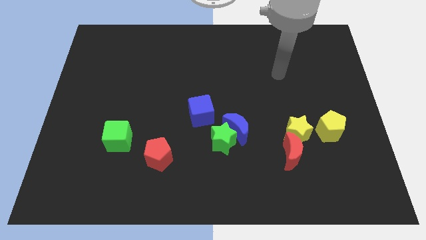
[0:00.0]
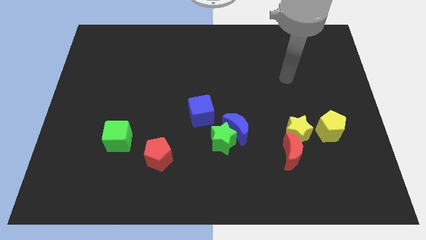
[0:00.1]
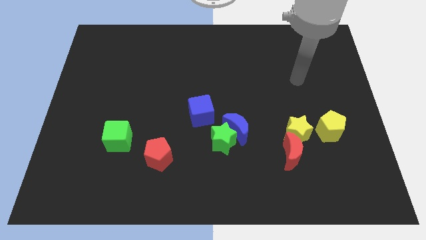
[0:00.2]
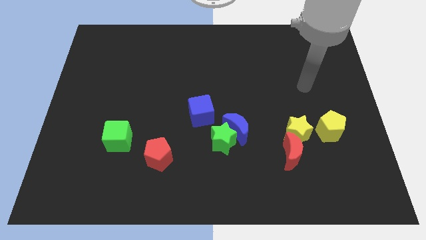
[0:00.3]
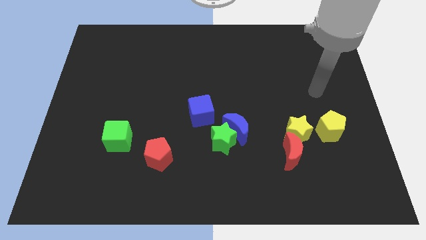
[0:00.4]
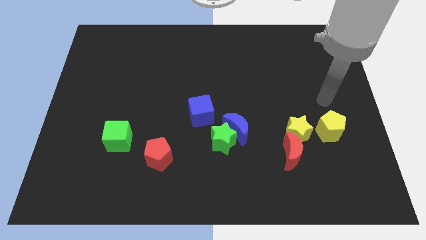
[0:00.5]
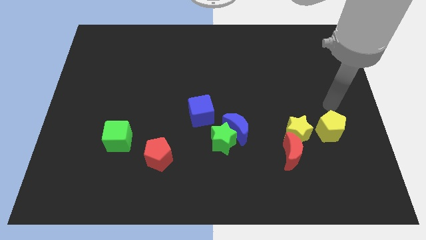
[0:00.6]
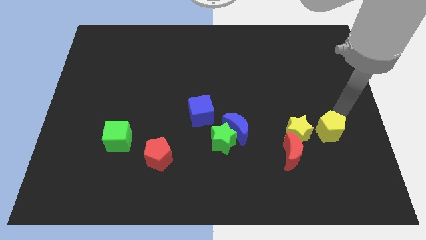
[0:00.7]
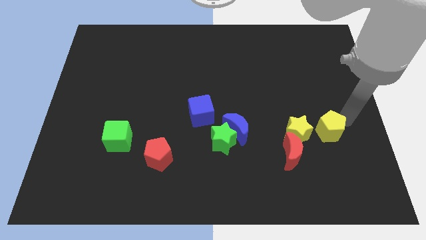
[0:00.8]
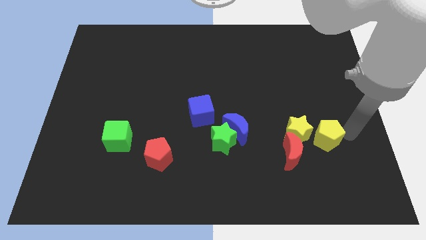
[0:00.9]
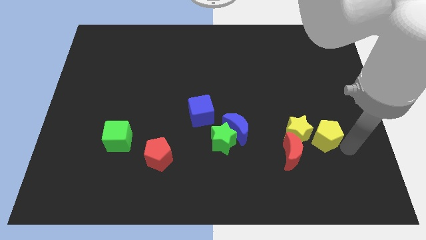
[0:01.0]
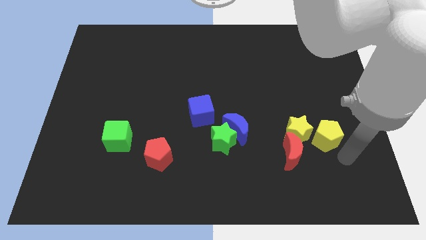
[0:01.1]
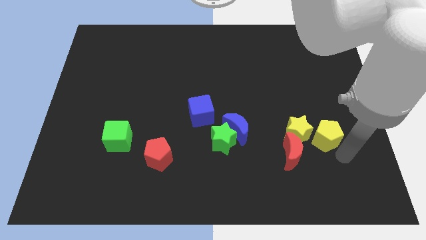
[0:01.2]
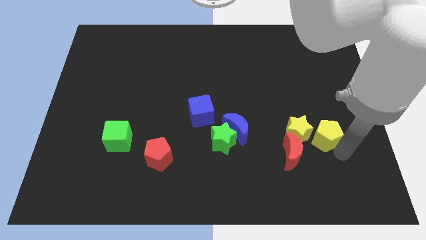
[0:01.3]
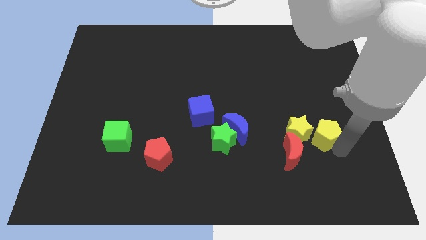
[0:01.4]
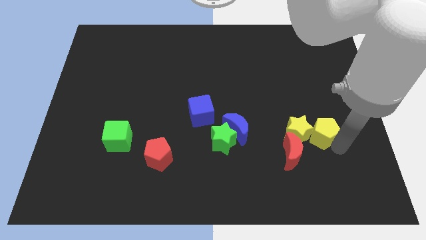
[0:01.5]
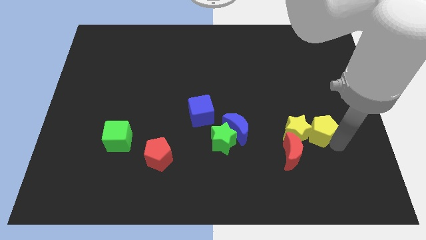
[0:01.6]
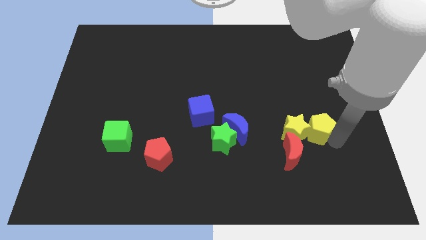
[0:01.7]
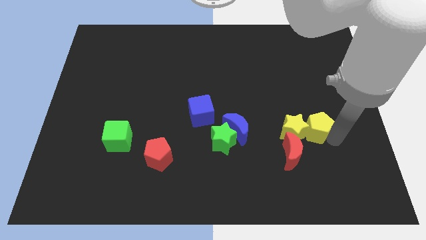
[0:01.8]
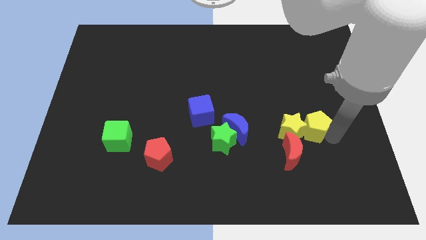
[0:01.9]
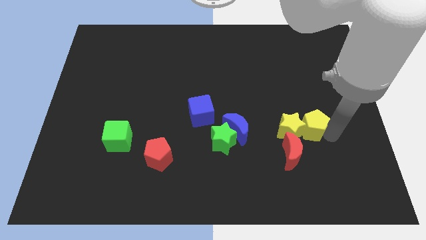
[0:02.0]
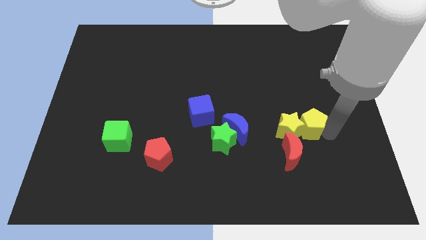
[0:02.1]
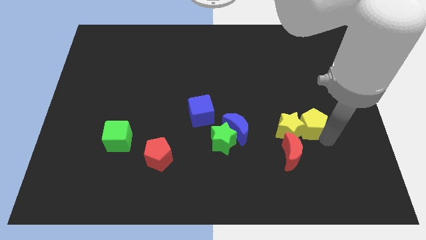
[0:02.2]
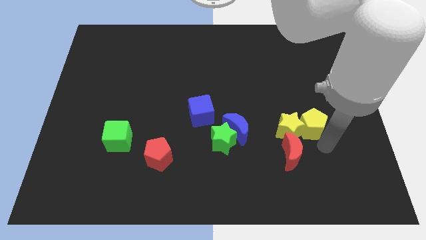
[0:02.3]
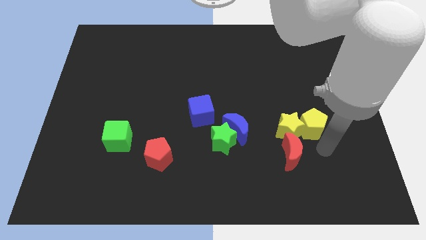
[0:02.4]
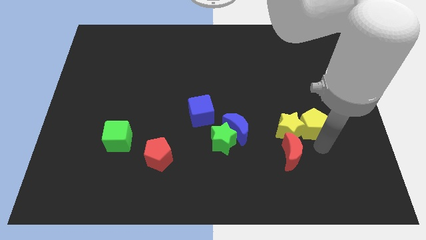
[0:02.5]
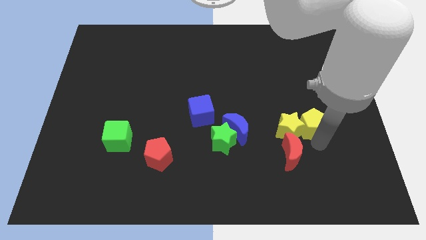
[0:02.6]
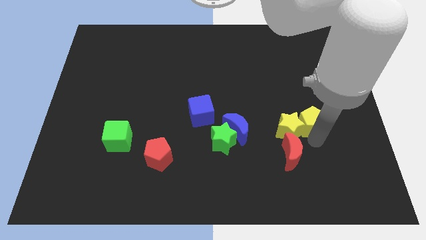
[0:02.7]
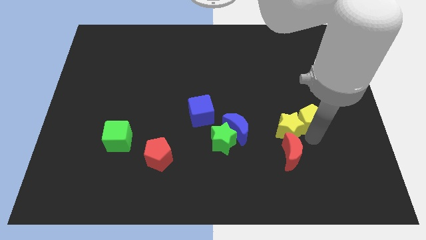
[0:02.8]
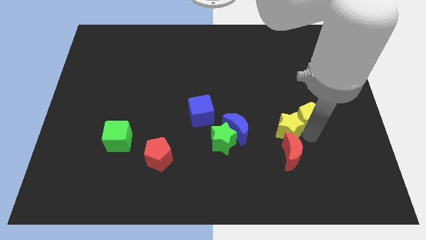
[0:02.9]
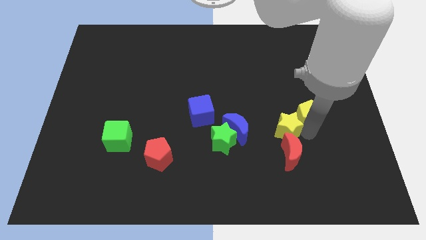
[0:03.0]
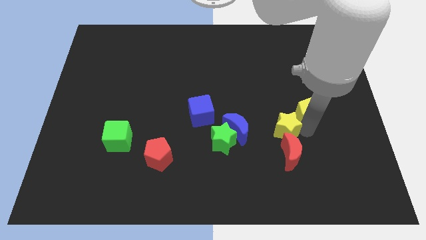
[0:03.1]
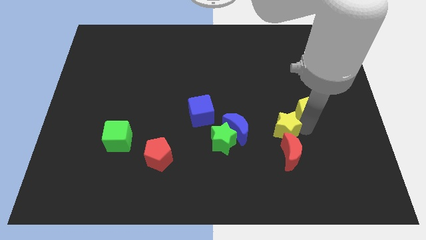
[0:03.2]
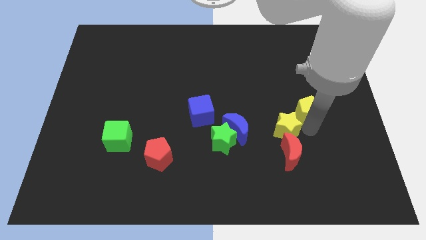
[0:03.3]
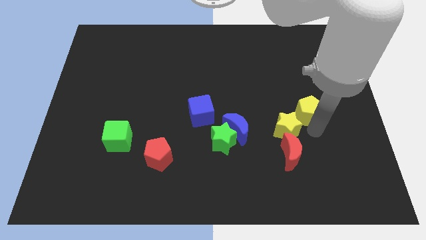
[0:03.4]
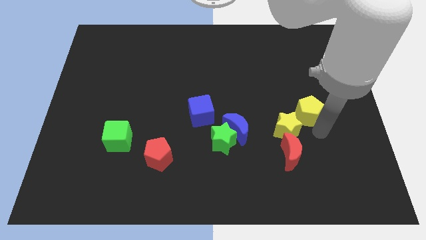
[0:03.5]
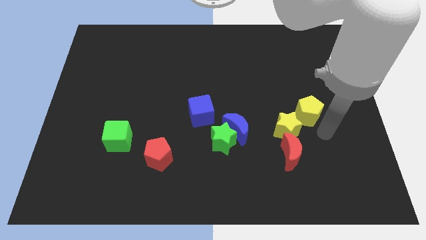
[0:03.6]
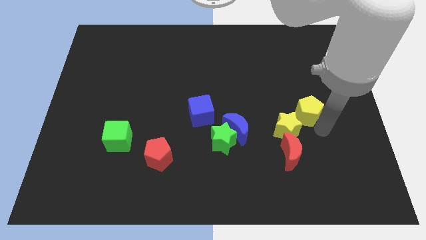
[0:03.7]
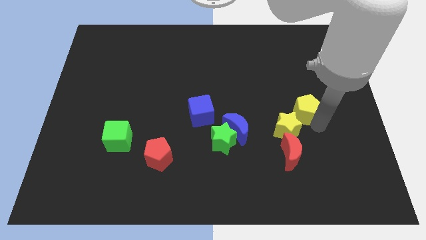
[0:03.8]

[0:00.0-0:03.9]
move the yellow pentagon upwards and to the left diagonally slightly

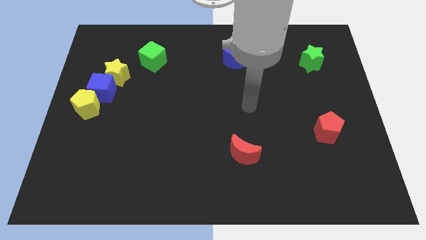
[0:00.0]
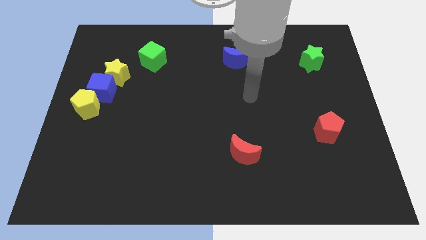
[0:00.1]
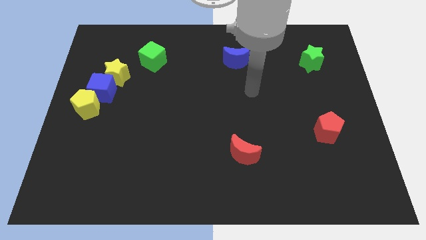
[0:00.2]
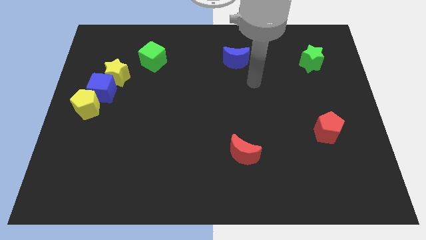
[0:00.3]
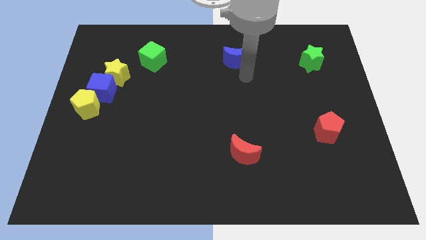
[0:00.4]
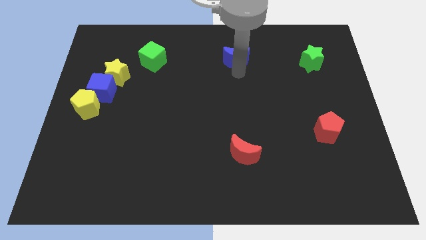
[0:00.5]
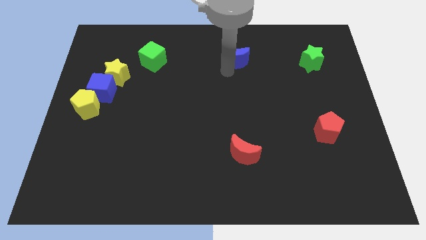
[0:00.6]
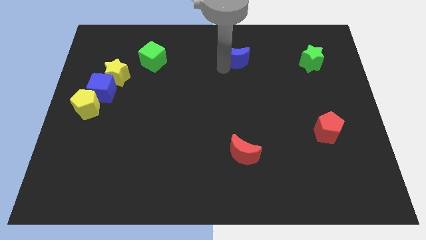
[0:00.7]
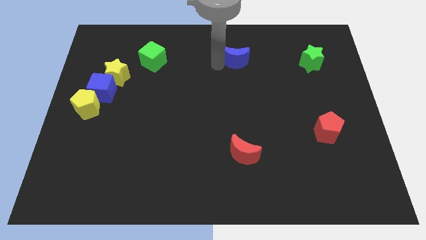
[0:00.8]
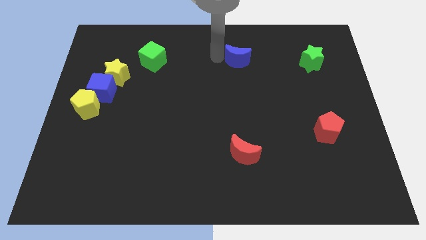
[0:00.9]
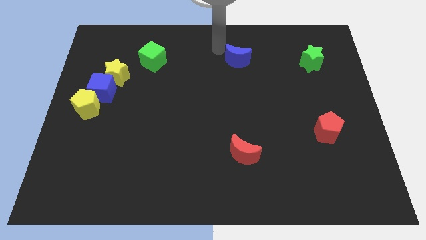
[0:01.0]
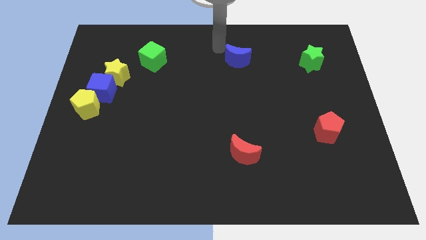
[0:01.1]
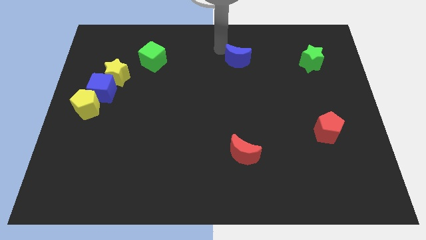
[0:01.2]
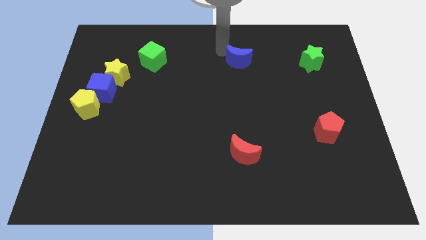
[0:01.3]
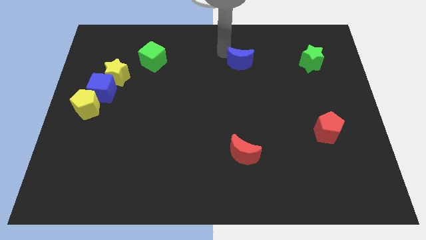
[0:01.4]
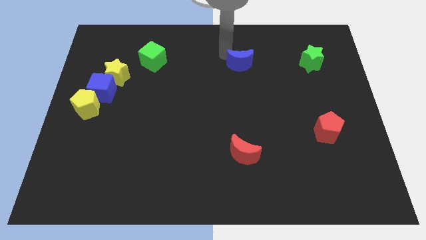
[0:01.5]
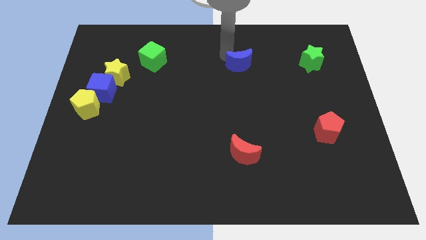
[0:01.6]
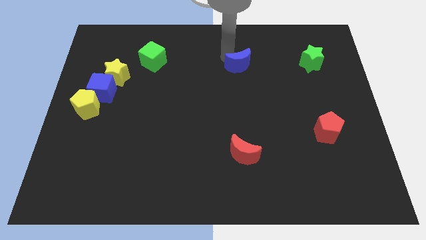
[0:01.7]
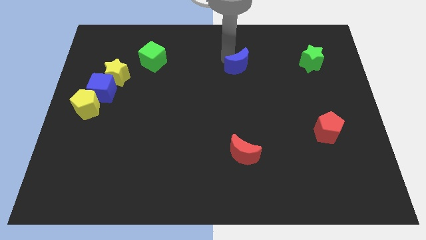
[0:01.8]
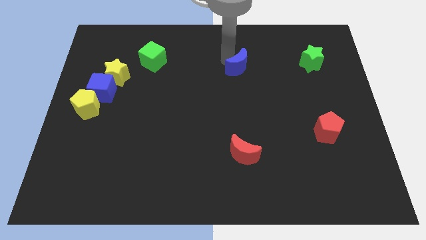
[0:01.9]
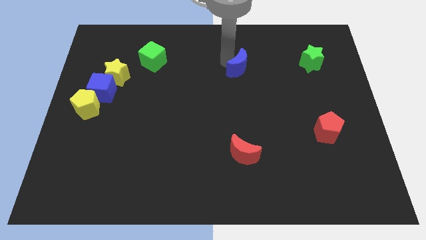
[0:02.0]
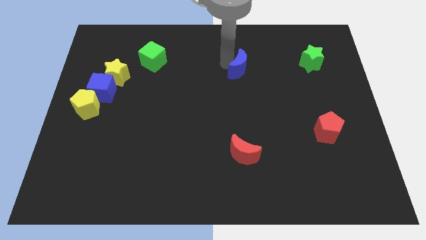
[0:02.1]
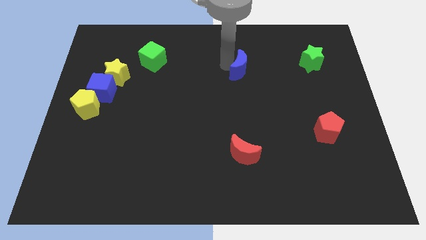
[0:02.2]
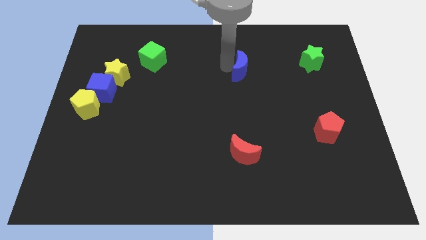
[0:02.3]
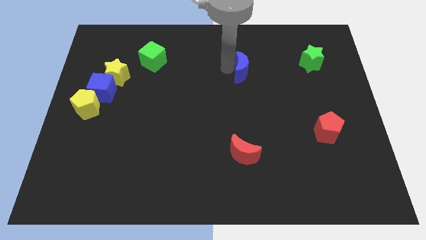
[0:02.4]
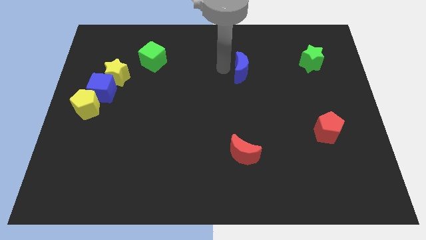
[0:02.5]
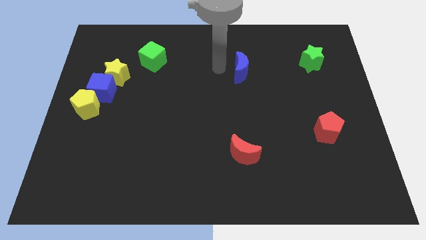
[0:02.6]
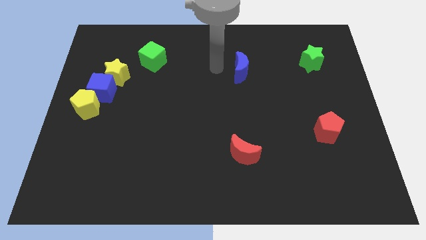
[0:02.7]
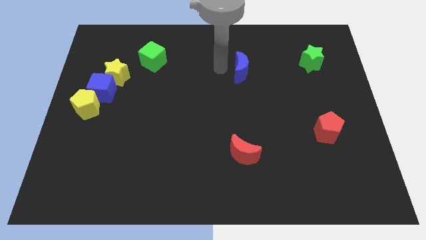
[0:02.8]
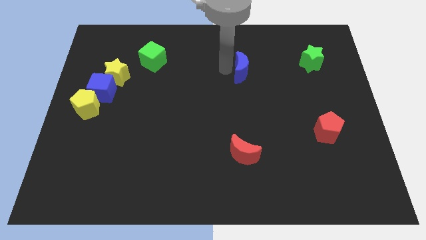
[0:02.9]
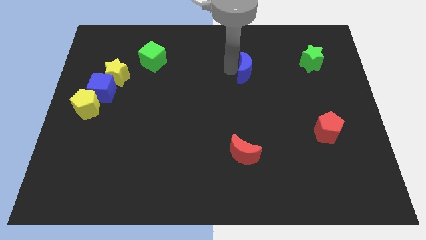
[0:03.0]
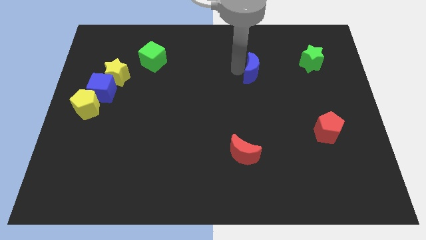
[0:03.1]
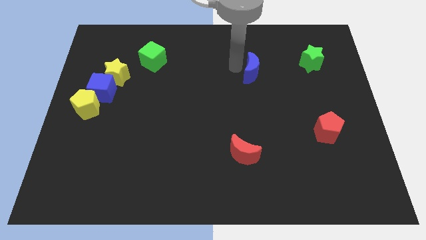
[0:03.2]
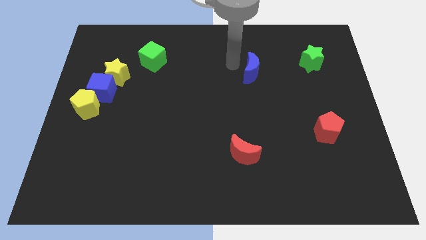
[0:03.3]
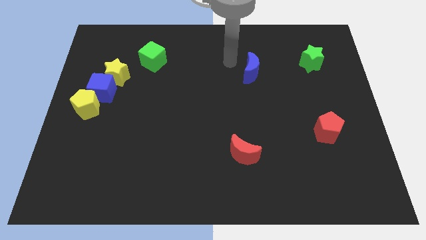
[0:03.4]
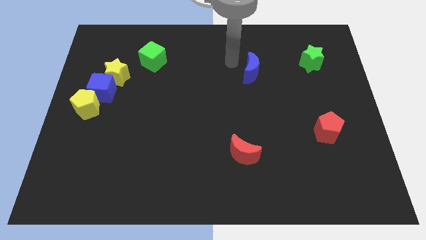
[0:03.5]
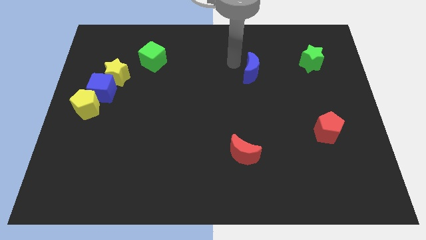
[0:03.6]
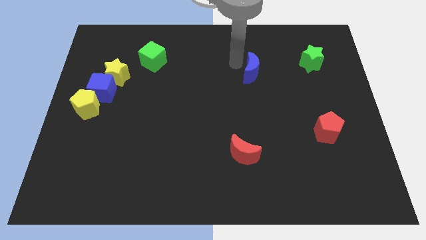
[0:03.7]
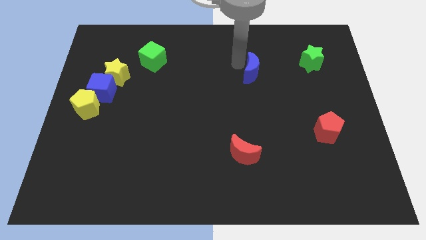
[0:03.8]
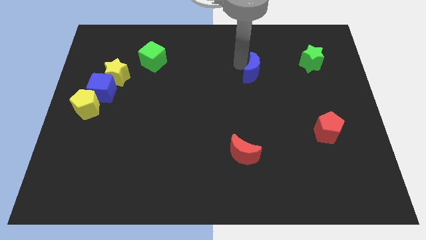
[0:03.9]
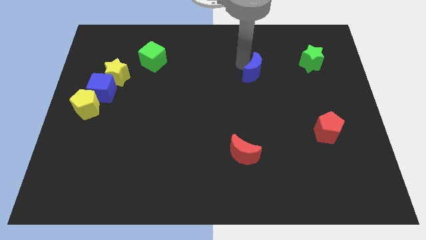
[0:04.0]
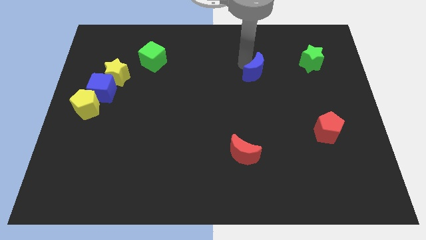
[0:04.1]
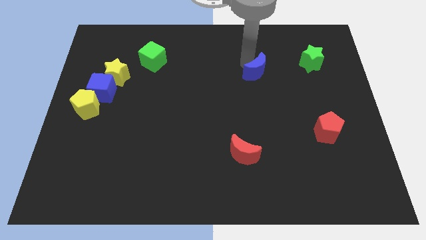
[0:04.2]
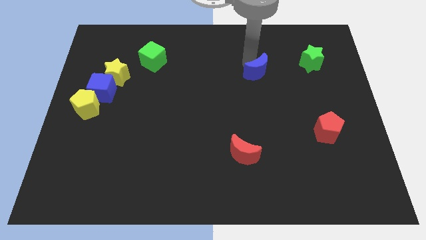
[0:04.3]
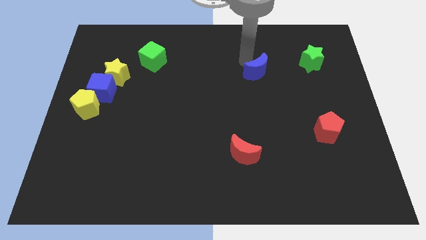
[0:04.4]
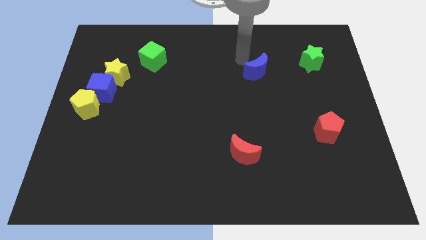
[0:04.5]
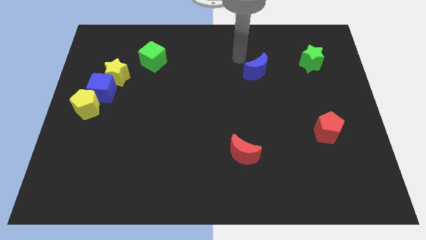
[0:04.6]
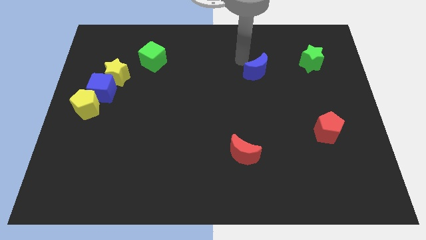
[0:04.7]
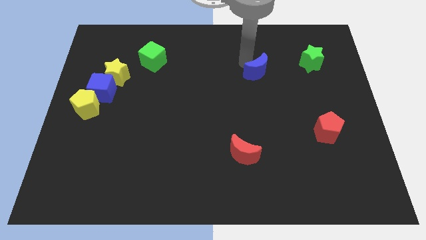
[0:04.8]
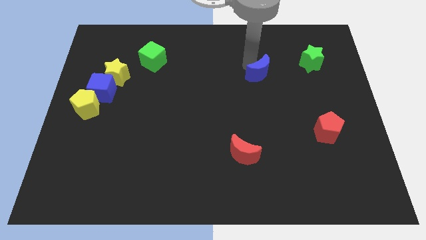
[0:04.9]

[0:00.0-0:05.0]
push the blue moon somewhat down and right diagonally
